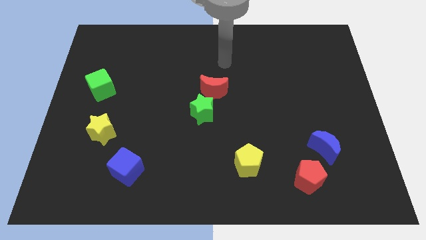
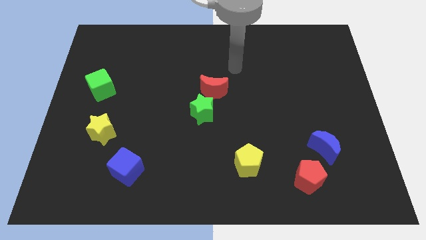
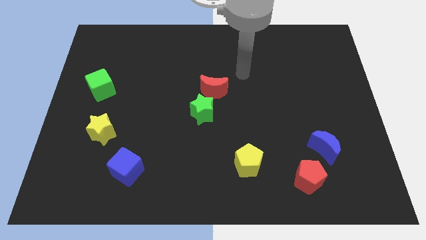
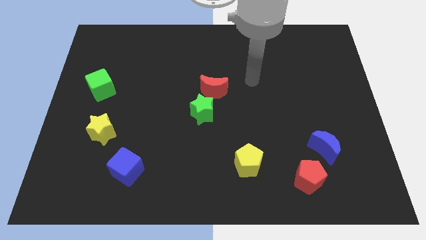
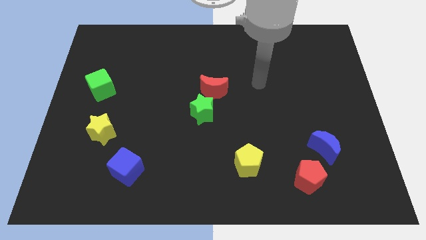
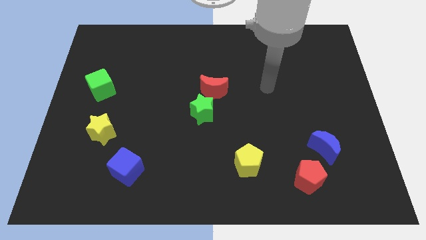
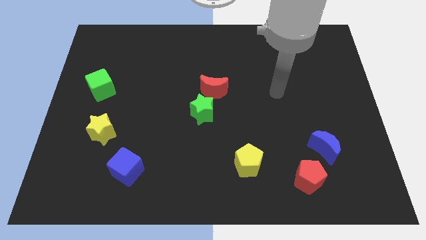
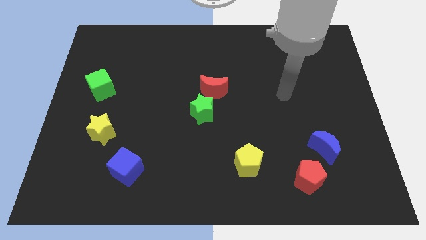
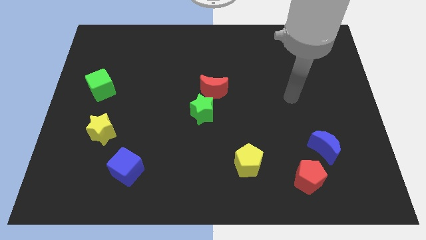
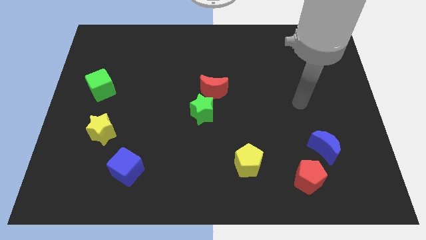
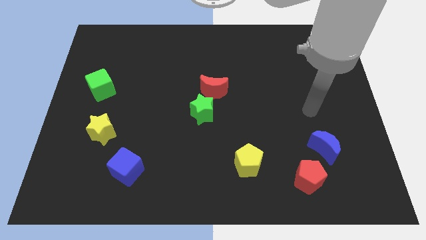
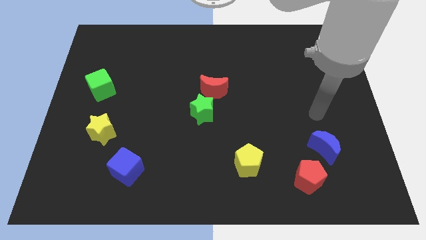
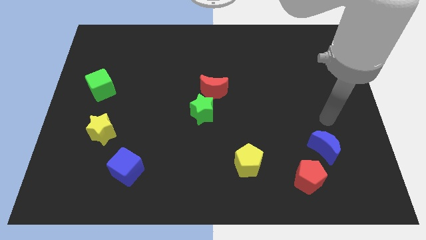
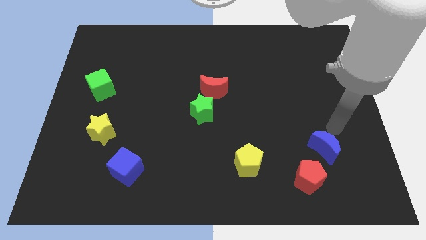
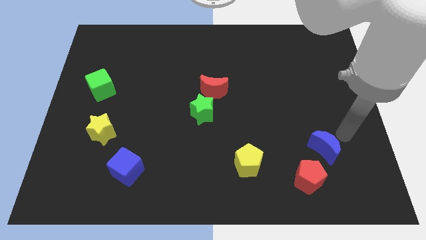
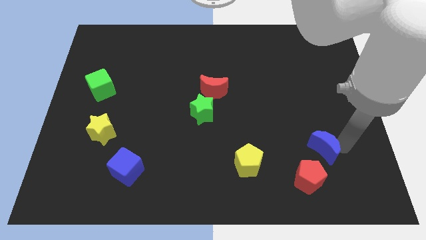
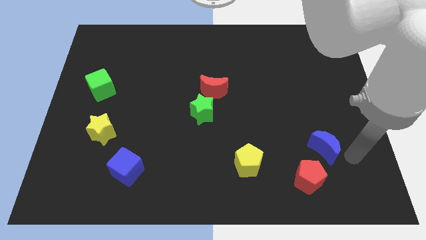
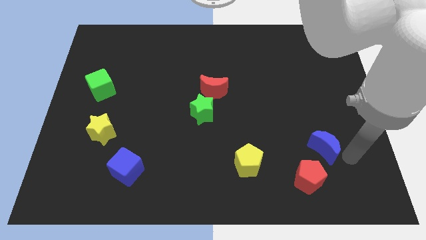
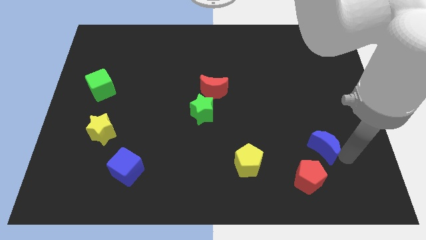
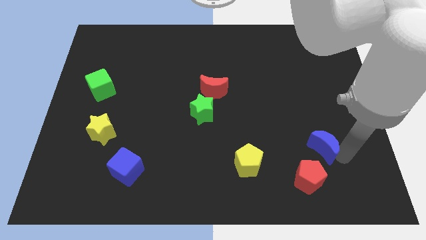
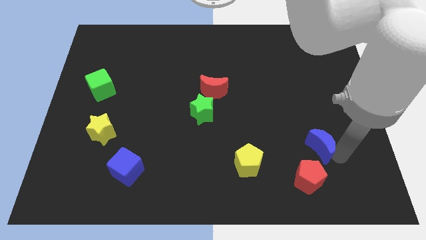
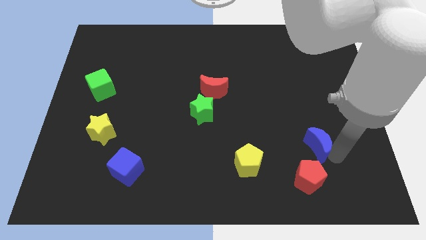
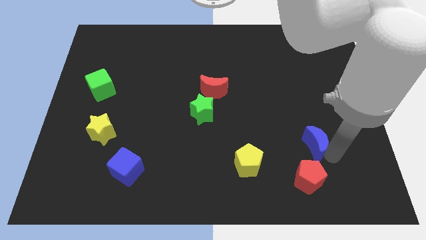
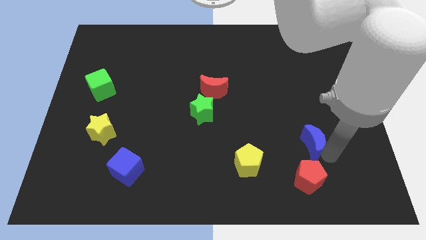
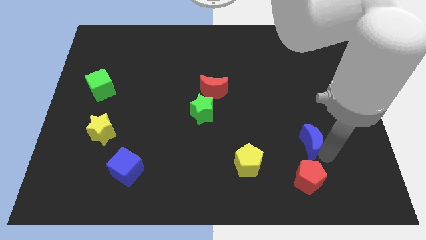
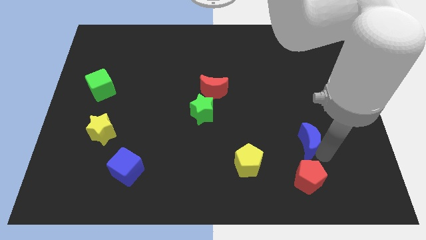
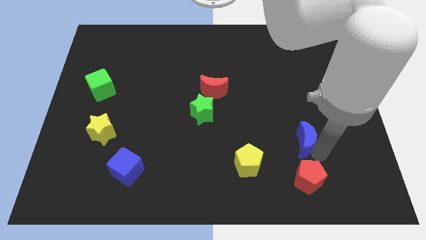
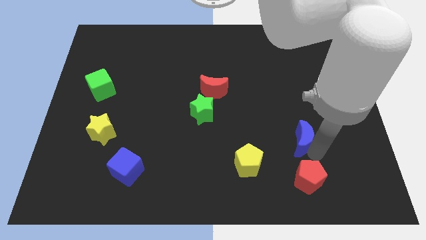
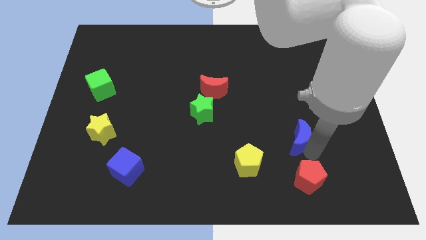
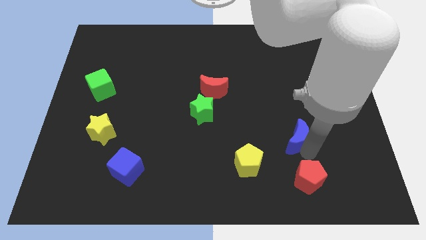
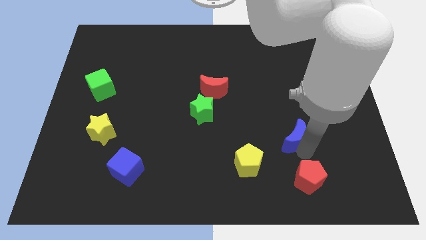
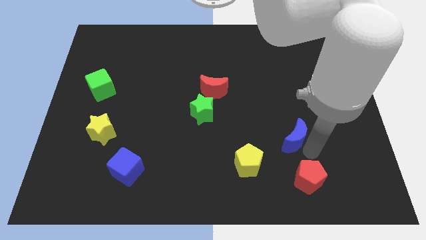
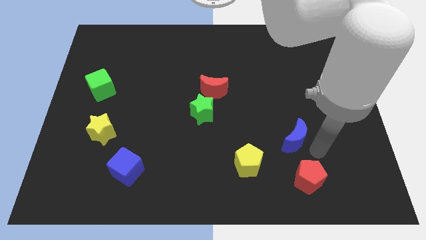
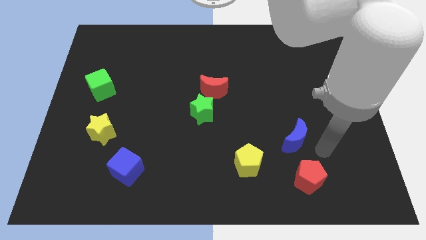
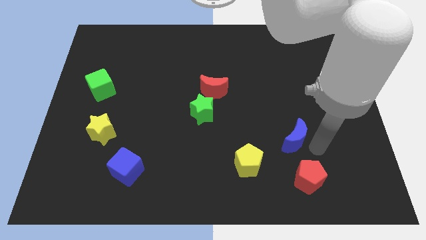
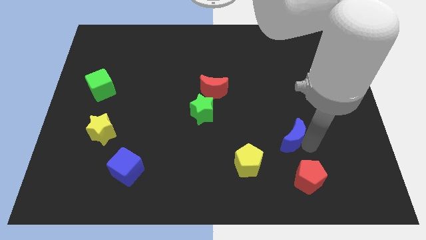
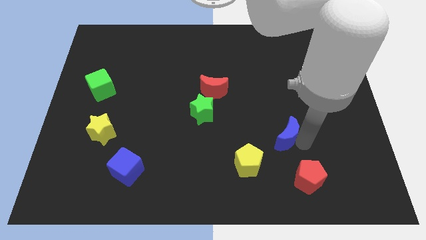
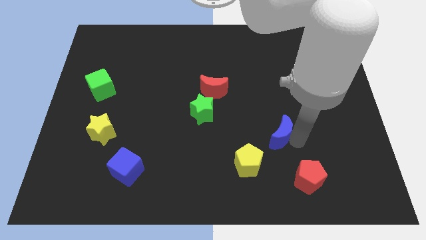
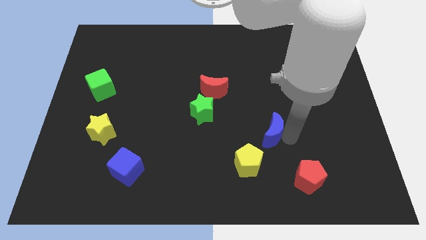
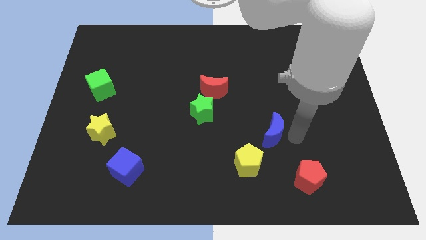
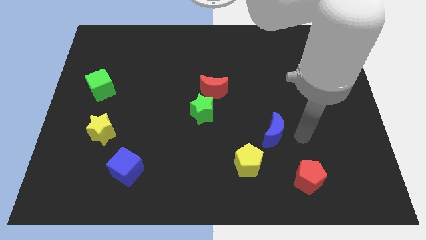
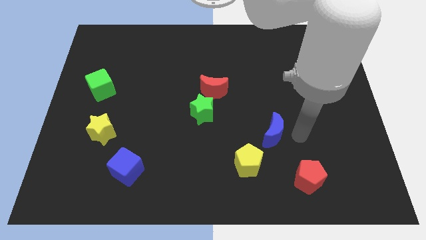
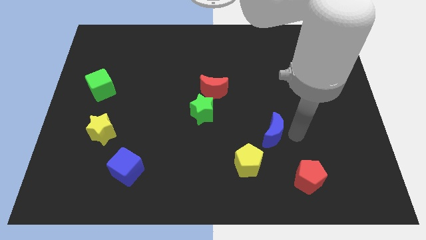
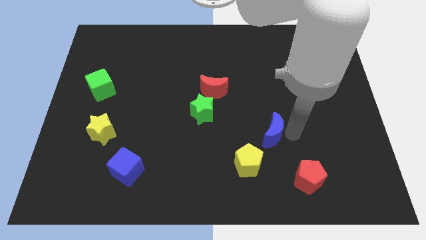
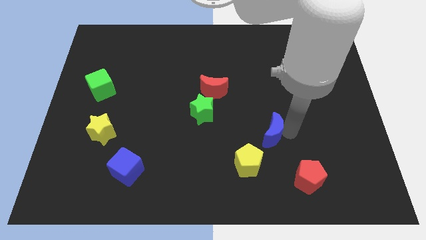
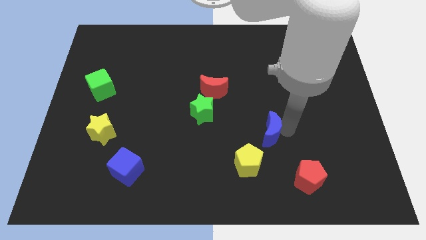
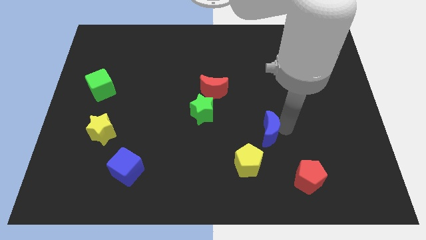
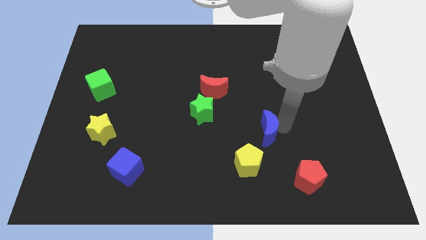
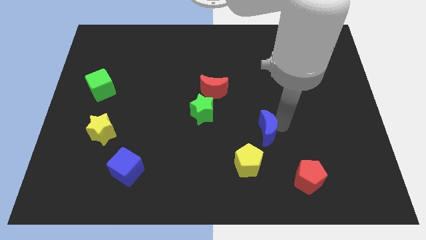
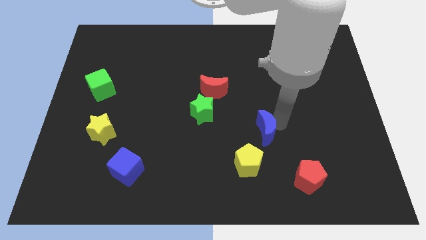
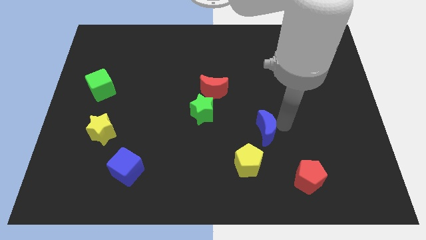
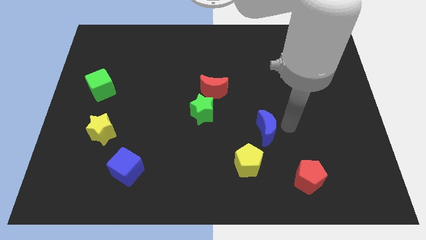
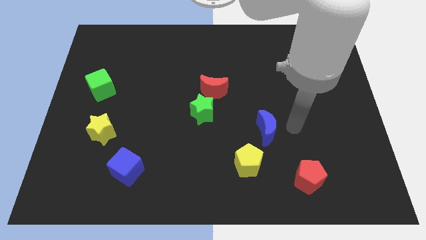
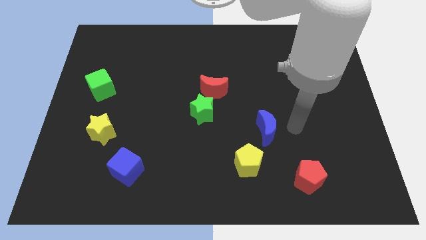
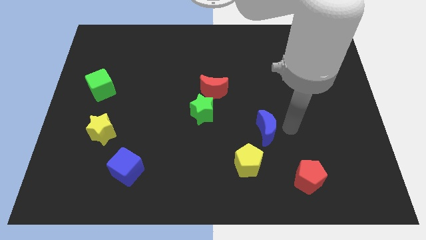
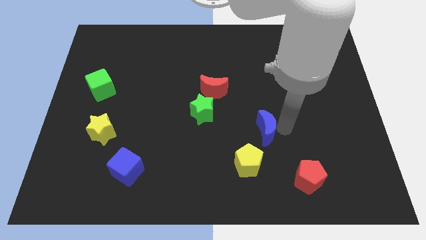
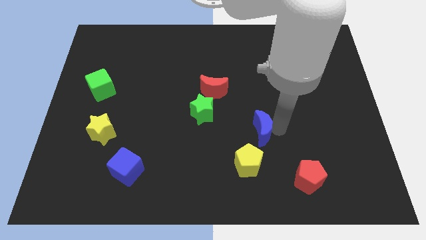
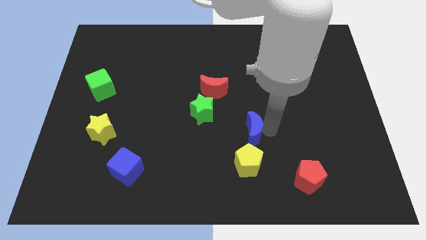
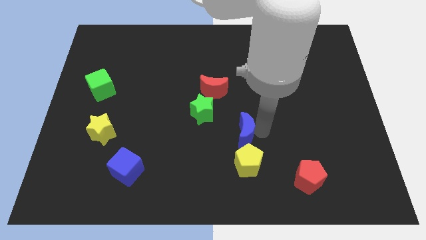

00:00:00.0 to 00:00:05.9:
push the blue moon to the bottom right side of the green star

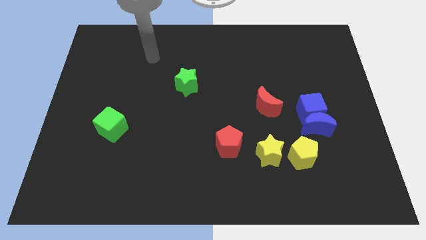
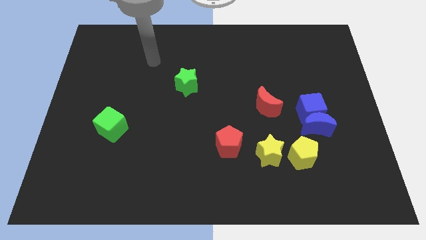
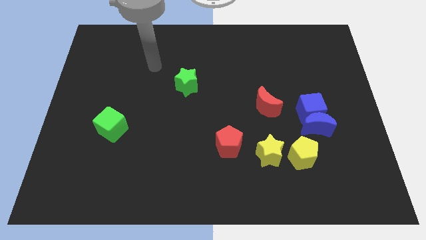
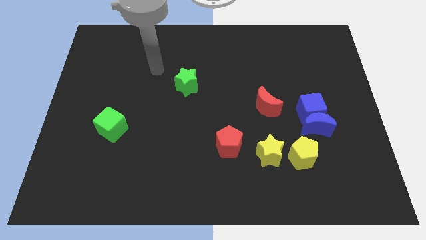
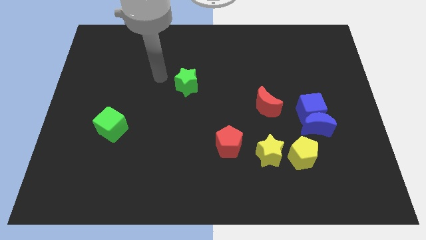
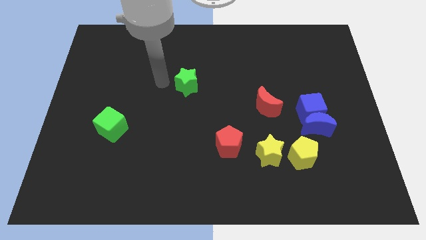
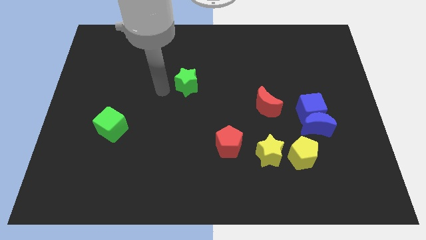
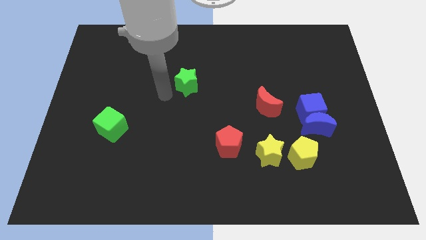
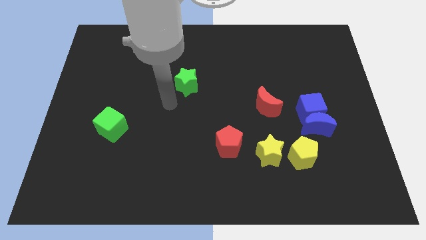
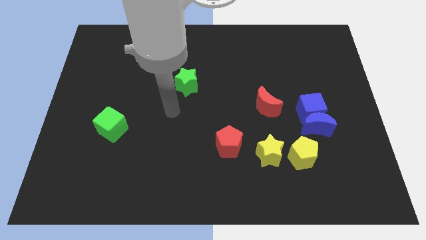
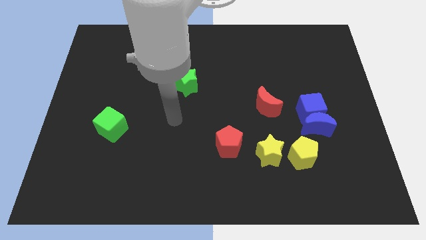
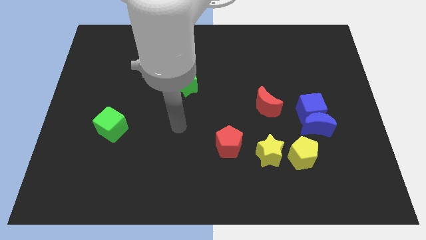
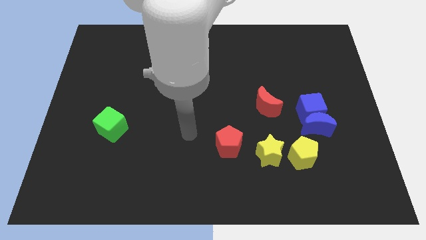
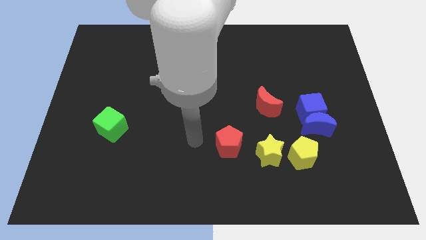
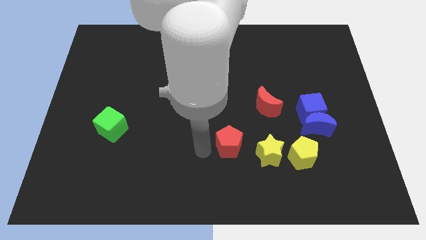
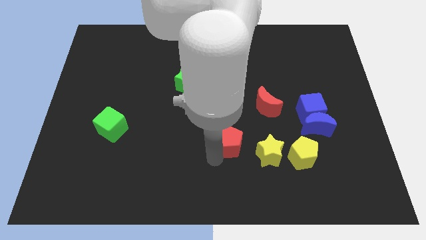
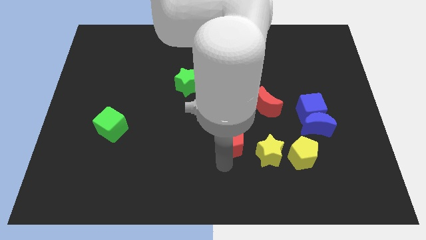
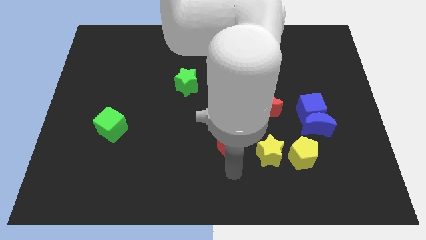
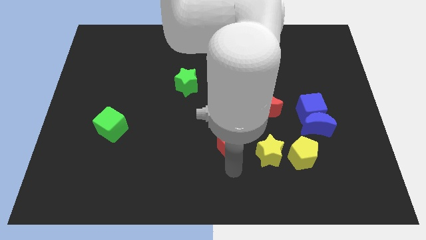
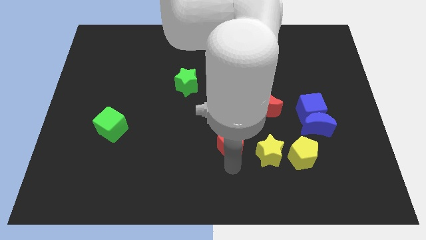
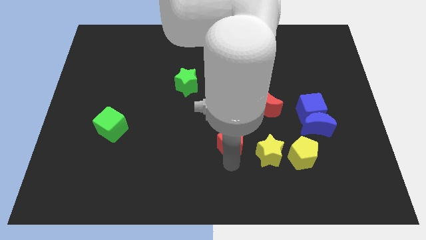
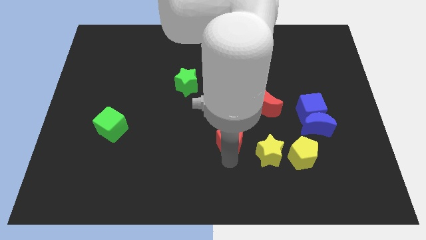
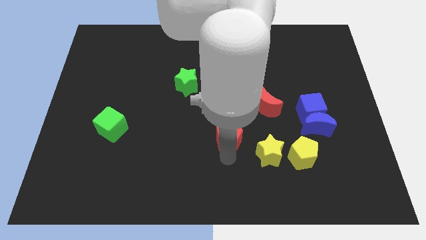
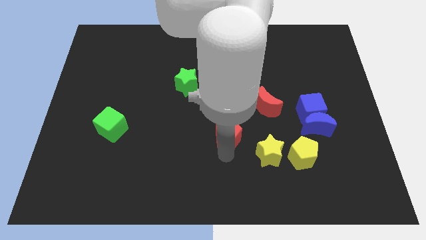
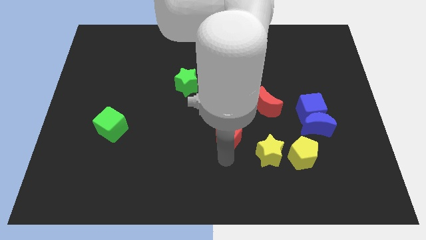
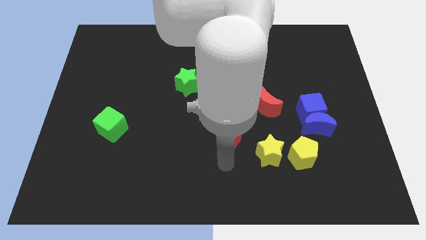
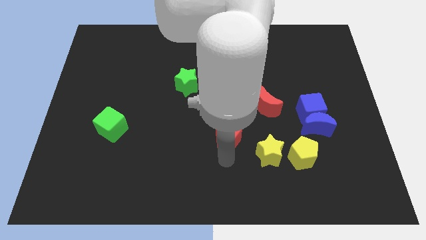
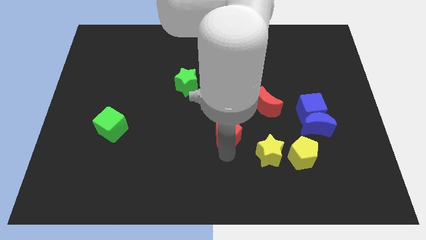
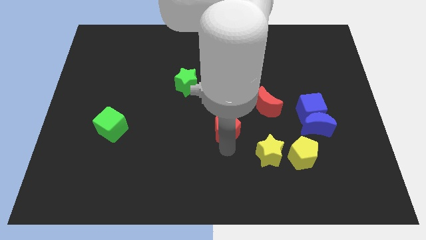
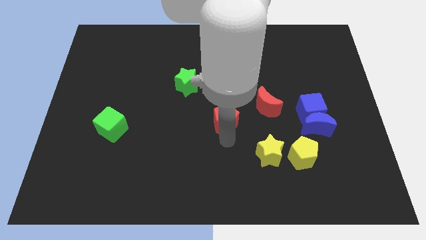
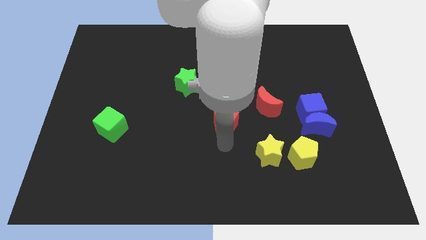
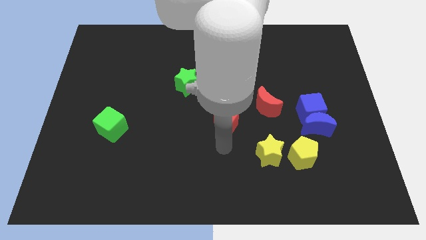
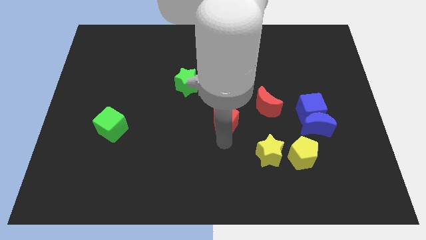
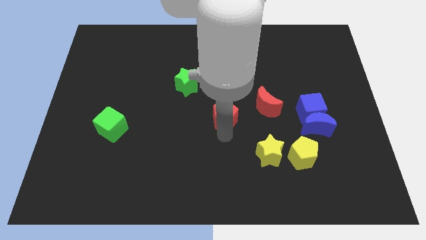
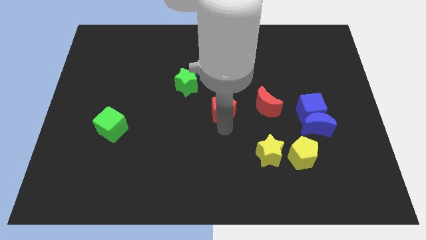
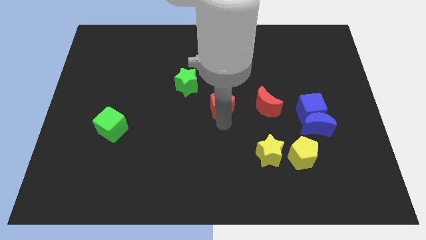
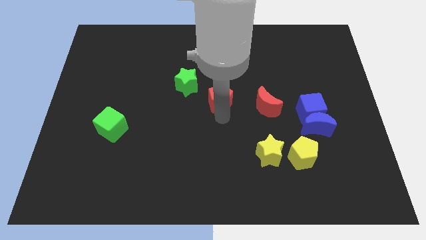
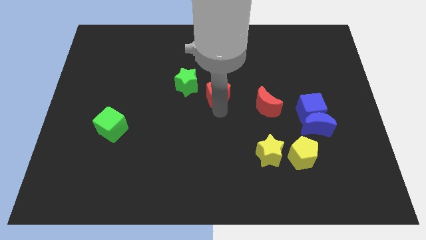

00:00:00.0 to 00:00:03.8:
move the red pentagon just right of the green star
